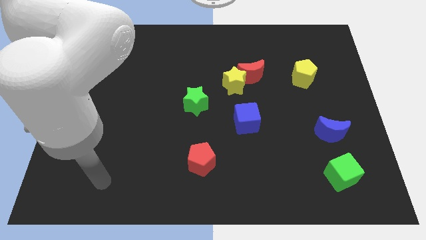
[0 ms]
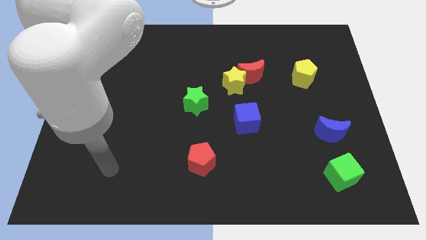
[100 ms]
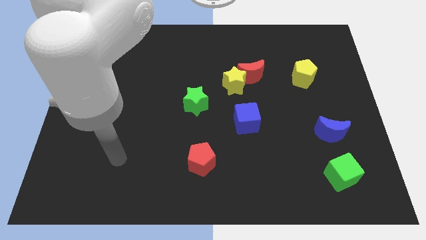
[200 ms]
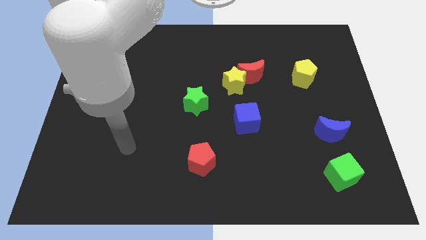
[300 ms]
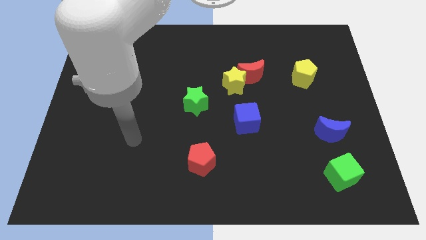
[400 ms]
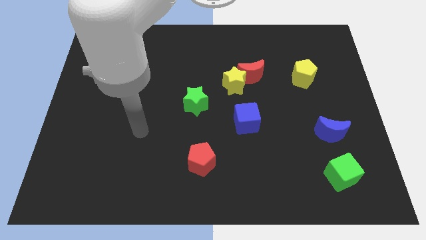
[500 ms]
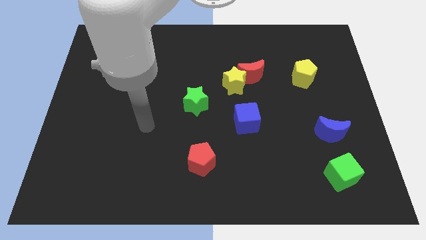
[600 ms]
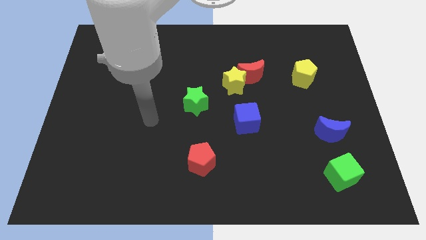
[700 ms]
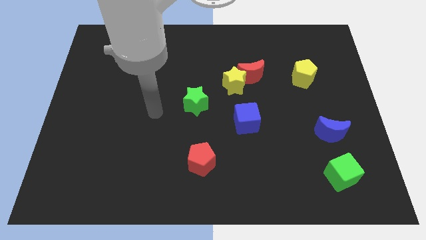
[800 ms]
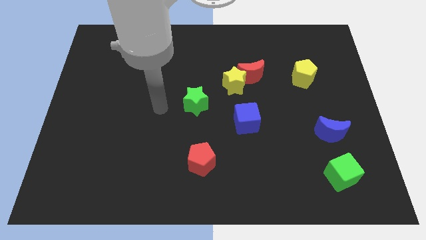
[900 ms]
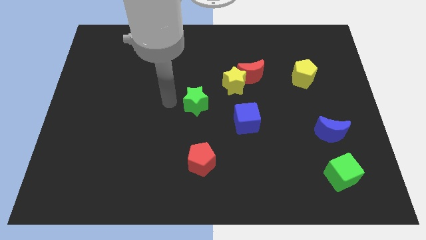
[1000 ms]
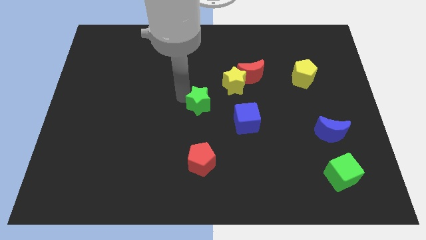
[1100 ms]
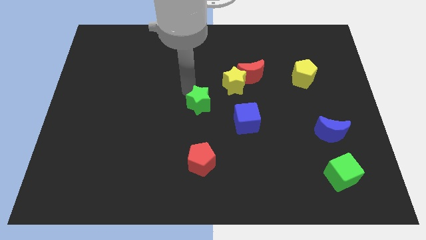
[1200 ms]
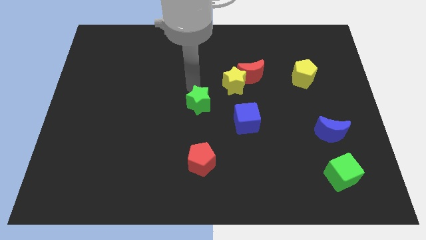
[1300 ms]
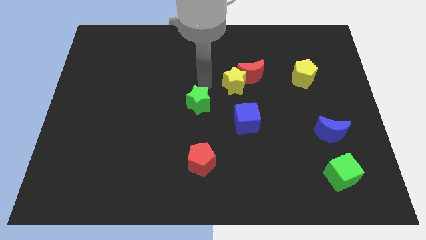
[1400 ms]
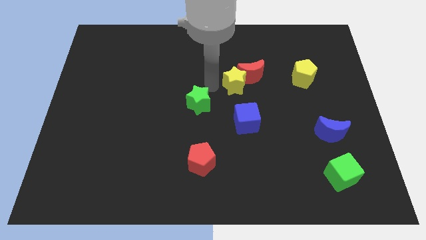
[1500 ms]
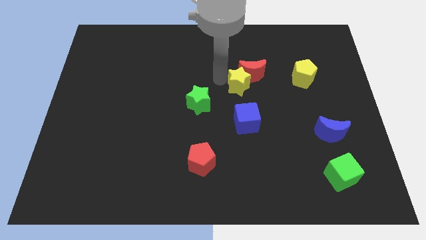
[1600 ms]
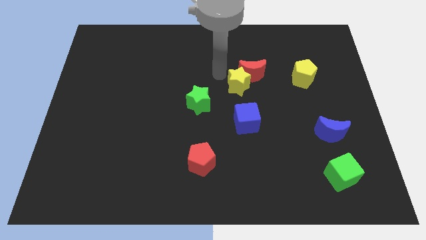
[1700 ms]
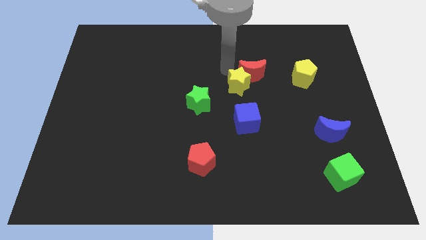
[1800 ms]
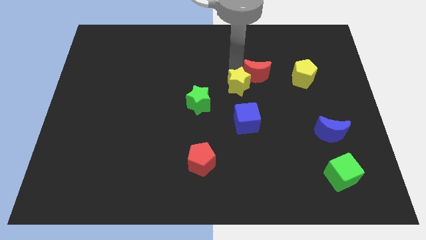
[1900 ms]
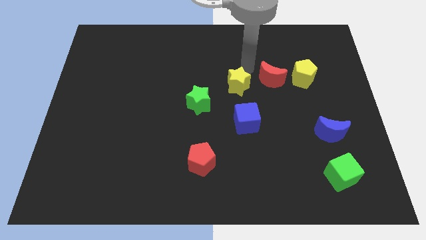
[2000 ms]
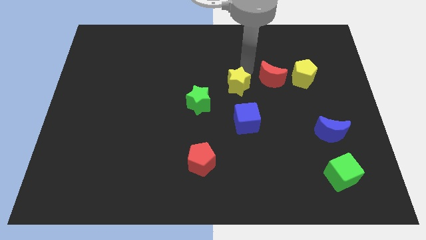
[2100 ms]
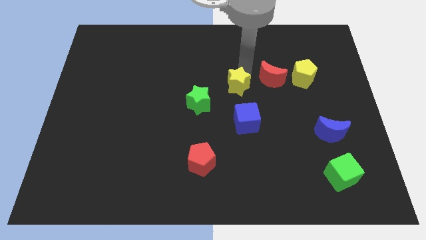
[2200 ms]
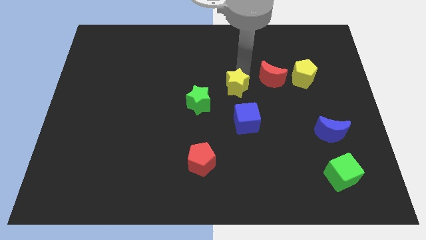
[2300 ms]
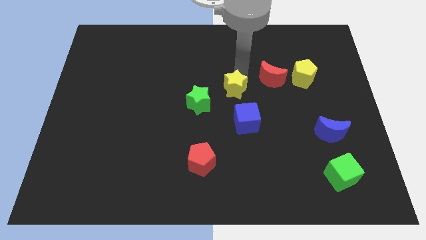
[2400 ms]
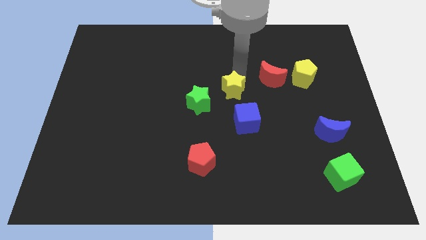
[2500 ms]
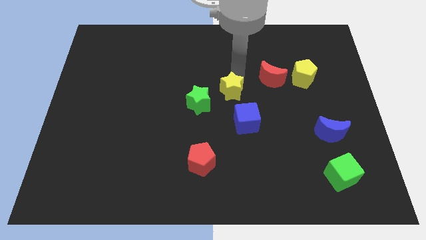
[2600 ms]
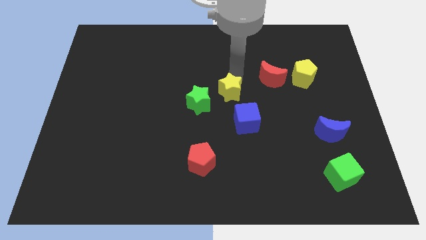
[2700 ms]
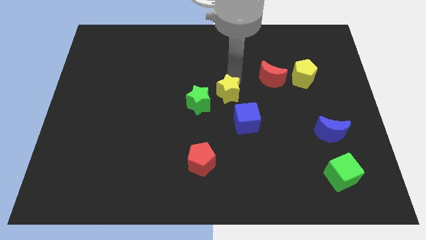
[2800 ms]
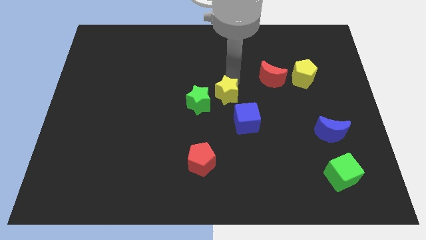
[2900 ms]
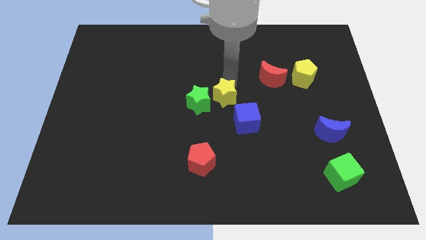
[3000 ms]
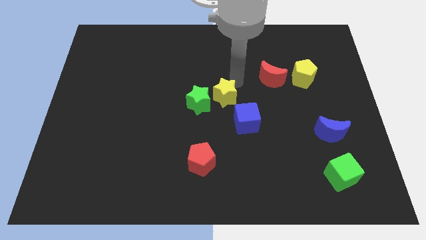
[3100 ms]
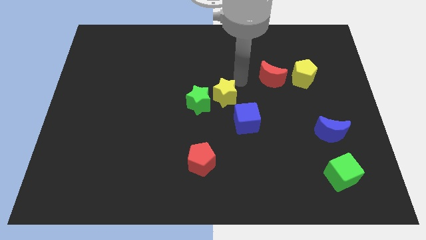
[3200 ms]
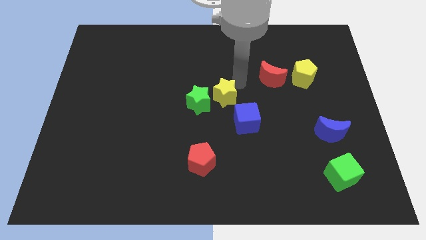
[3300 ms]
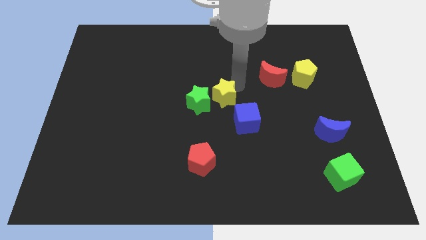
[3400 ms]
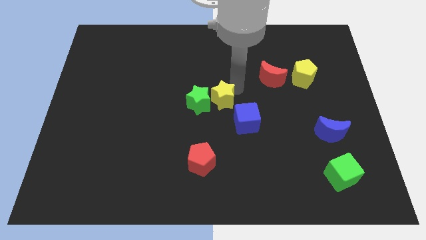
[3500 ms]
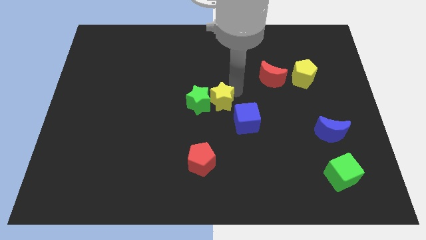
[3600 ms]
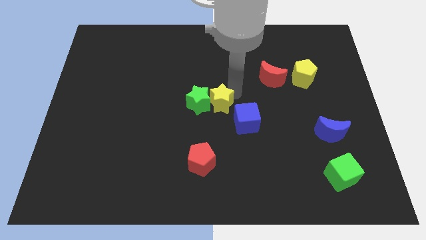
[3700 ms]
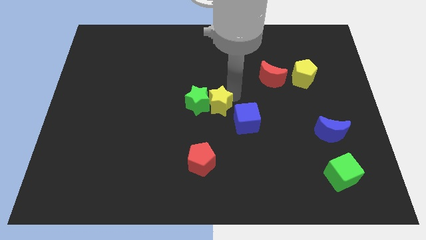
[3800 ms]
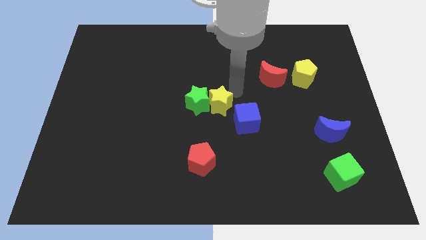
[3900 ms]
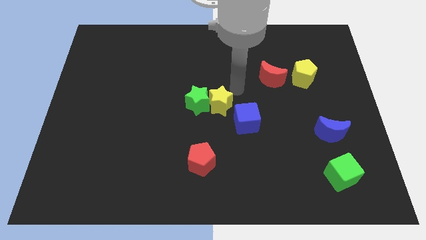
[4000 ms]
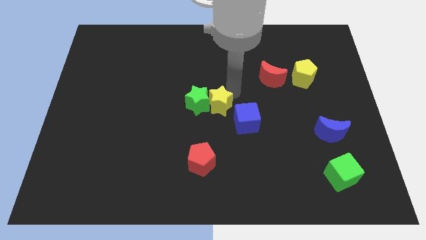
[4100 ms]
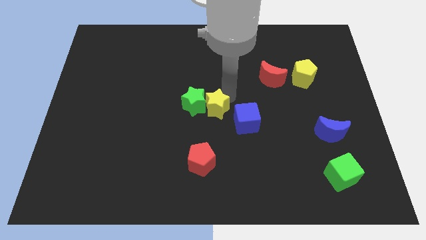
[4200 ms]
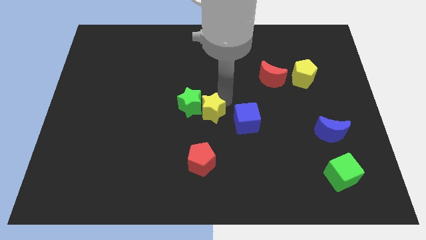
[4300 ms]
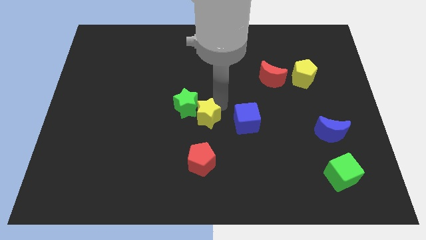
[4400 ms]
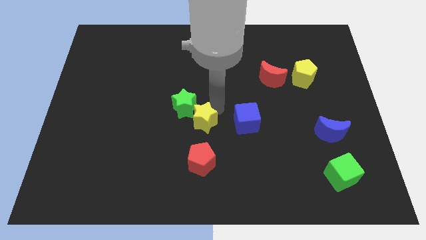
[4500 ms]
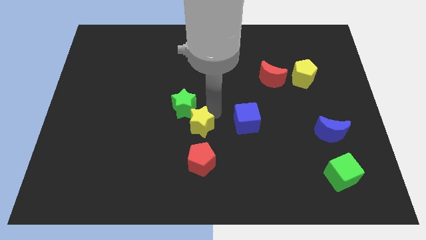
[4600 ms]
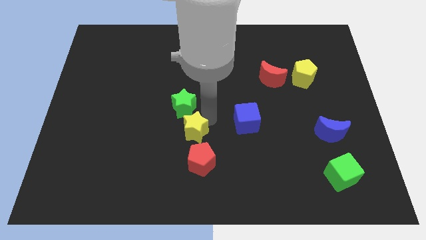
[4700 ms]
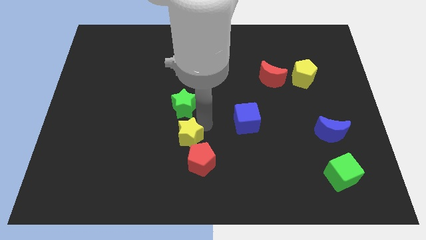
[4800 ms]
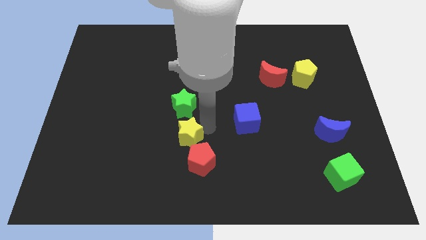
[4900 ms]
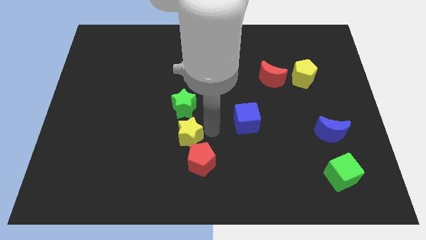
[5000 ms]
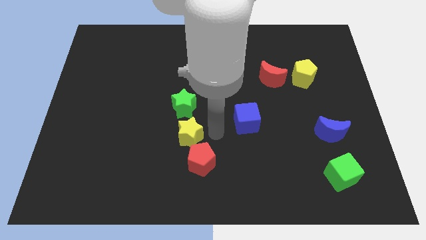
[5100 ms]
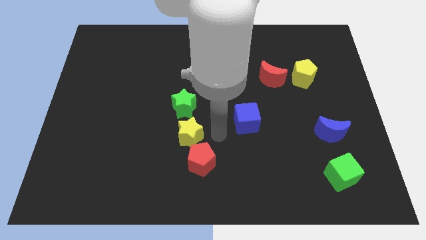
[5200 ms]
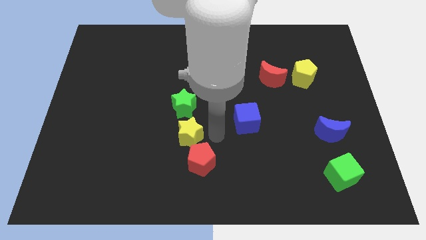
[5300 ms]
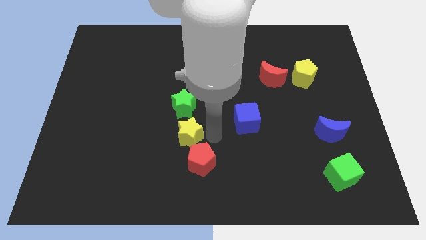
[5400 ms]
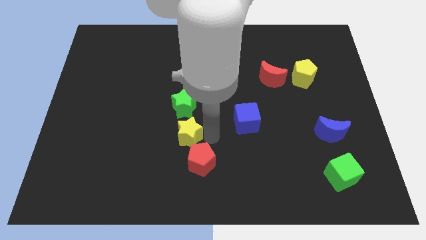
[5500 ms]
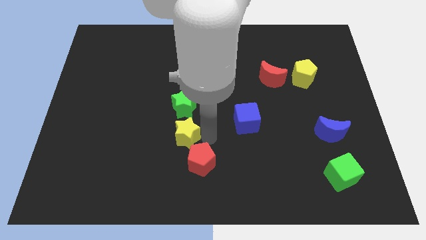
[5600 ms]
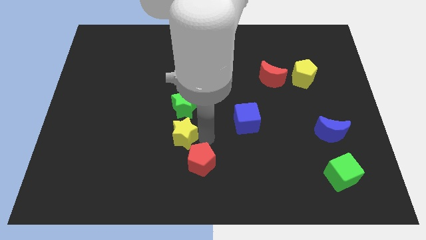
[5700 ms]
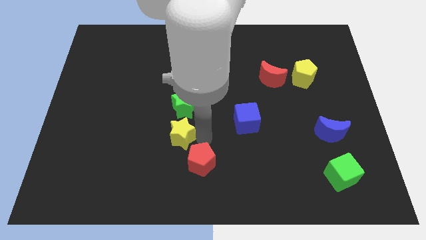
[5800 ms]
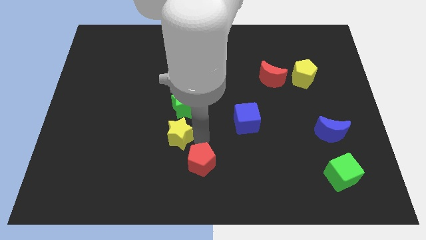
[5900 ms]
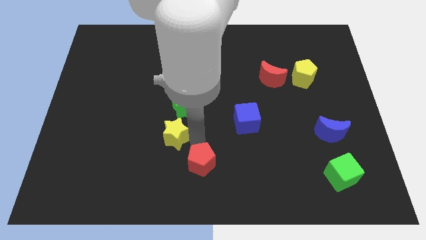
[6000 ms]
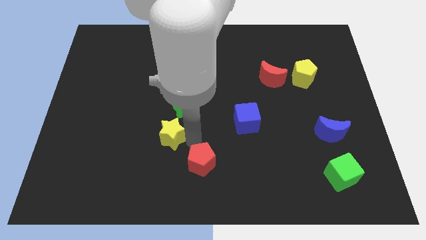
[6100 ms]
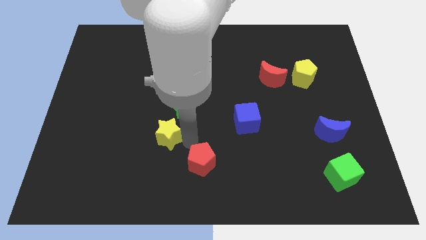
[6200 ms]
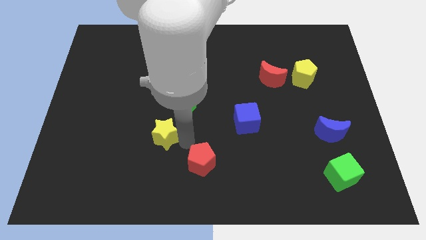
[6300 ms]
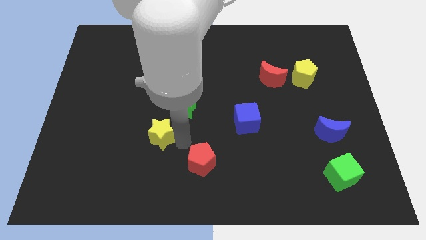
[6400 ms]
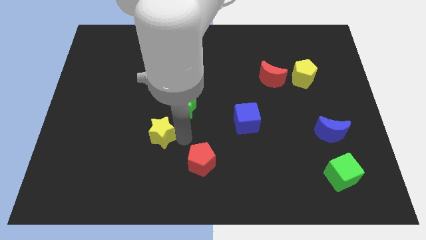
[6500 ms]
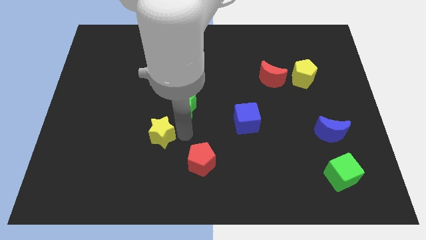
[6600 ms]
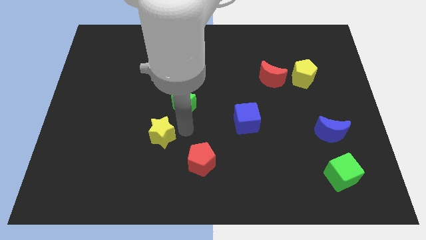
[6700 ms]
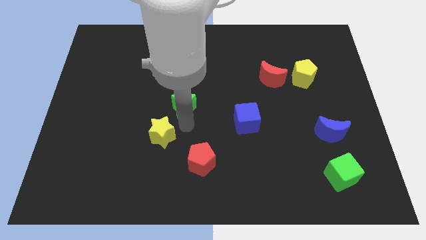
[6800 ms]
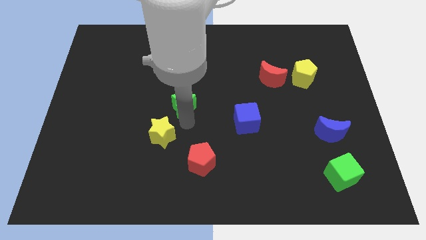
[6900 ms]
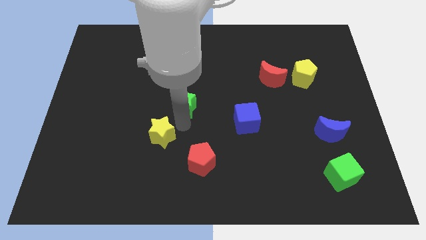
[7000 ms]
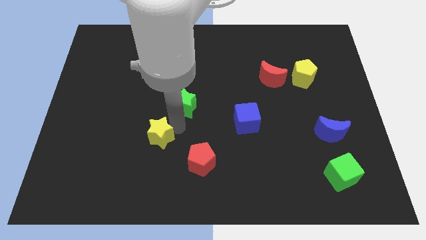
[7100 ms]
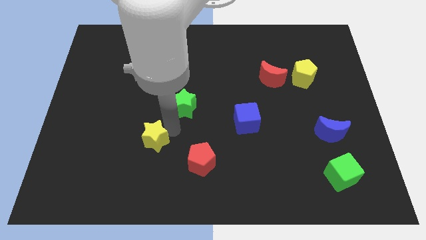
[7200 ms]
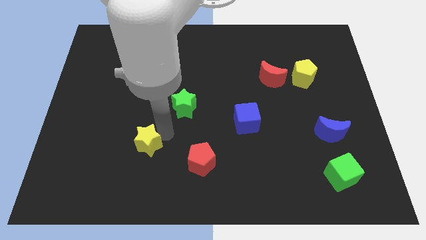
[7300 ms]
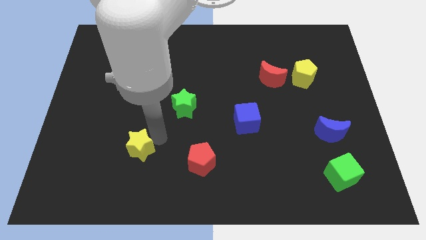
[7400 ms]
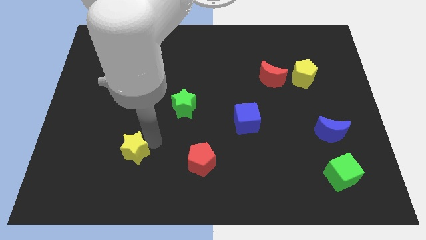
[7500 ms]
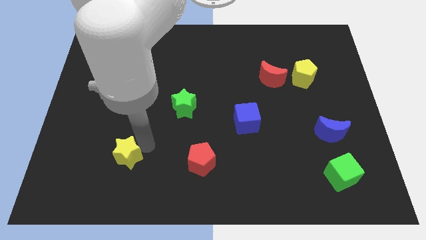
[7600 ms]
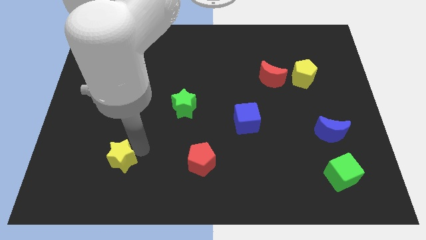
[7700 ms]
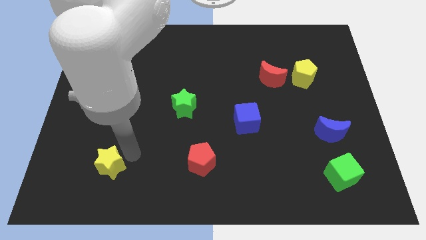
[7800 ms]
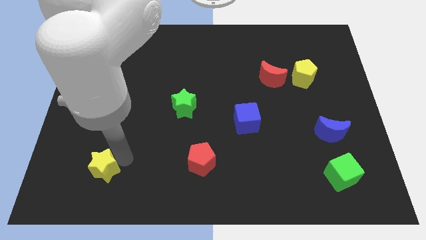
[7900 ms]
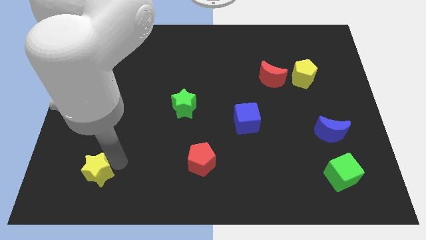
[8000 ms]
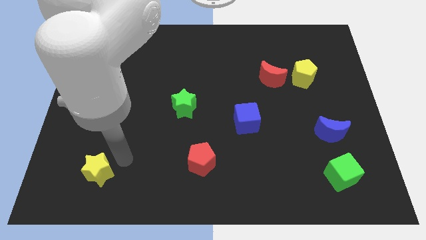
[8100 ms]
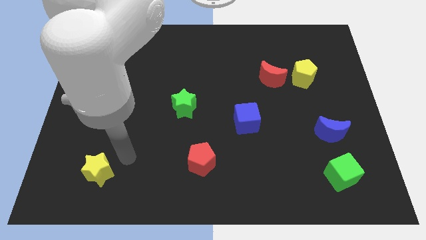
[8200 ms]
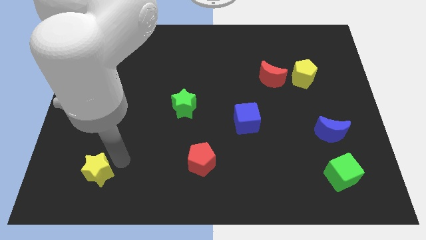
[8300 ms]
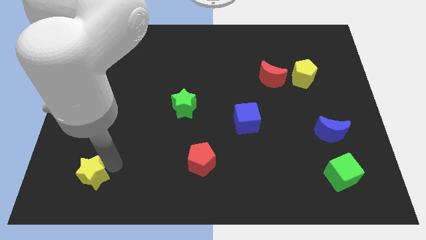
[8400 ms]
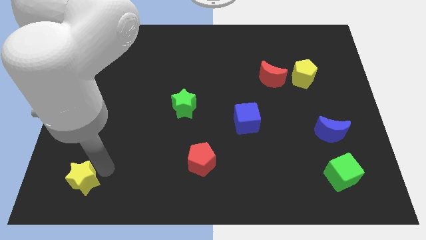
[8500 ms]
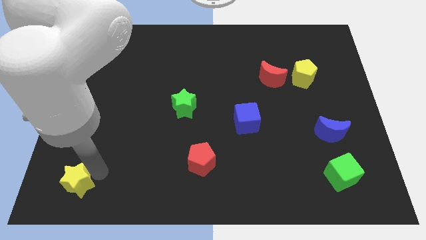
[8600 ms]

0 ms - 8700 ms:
push the yellow star to the bottom left
